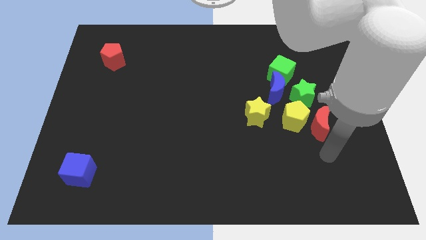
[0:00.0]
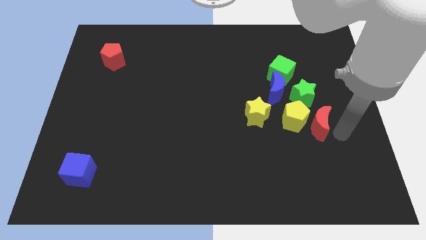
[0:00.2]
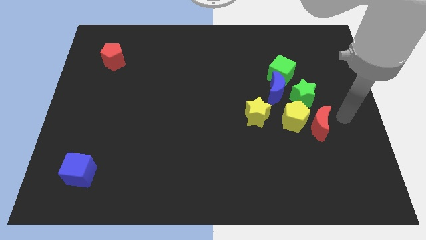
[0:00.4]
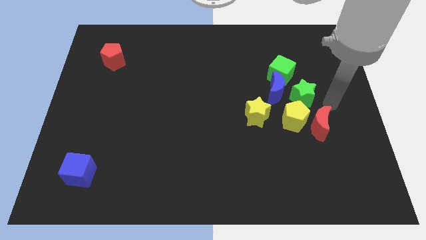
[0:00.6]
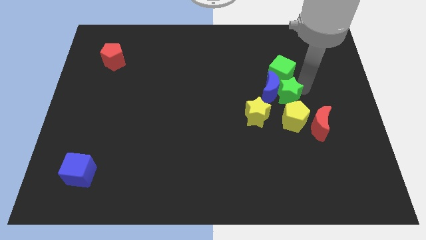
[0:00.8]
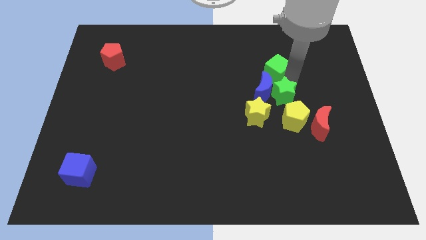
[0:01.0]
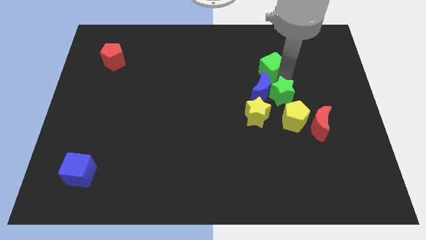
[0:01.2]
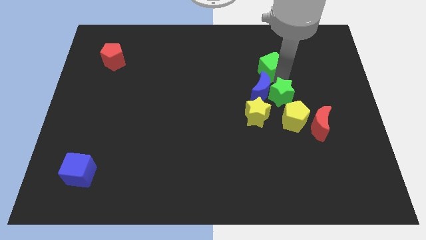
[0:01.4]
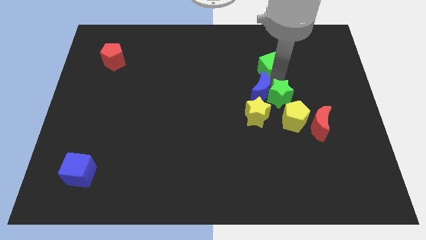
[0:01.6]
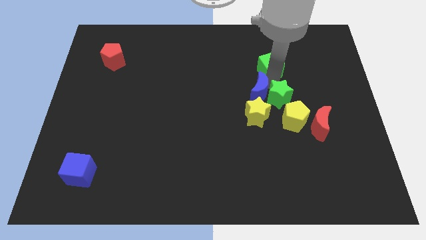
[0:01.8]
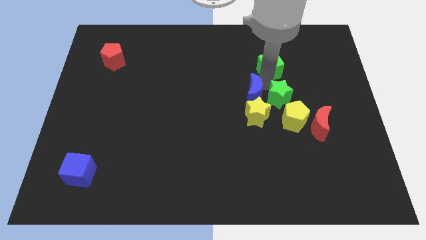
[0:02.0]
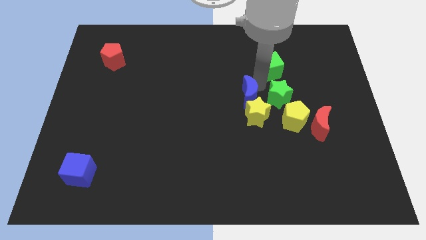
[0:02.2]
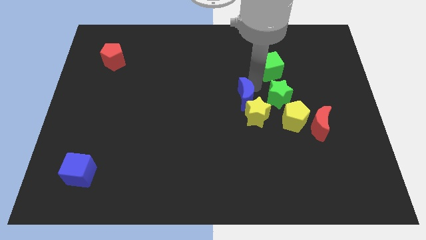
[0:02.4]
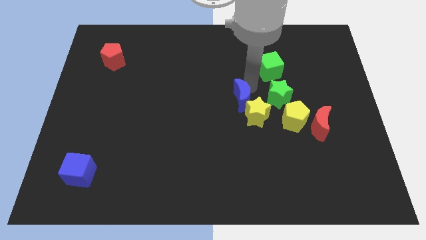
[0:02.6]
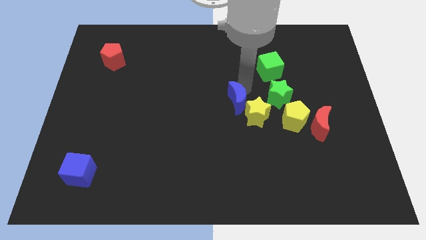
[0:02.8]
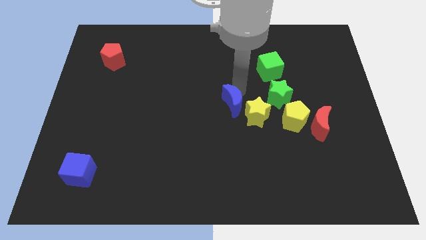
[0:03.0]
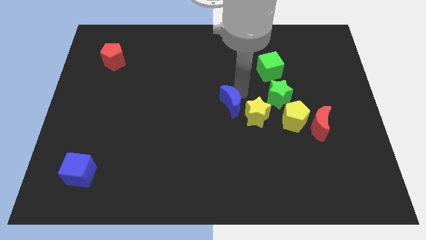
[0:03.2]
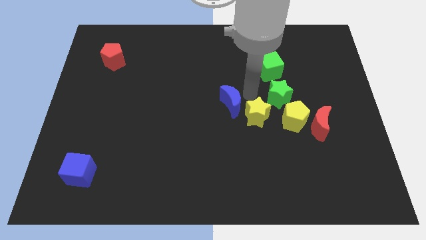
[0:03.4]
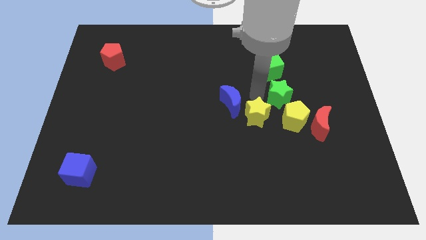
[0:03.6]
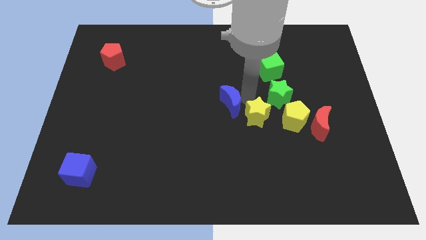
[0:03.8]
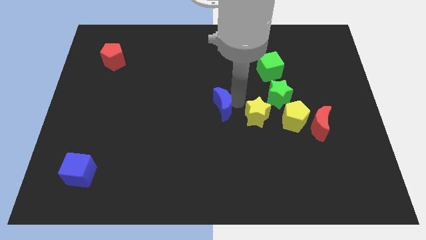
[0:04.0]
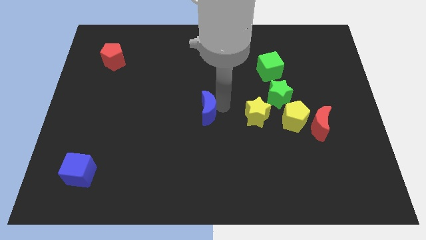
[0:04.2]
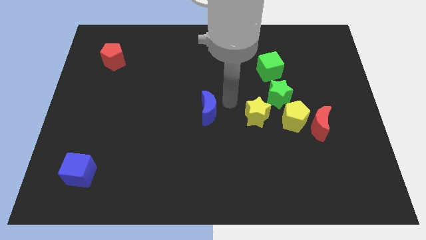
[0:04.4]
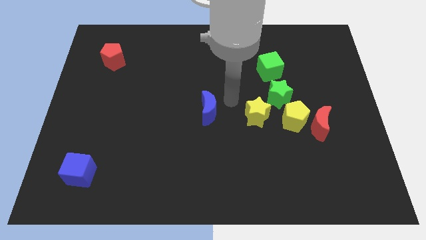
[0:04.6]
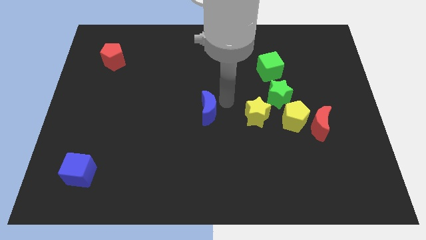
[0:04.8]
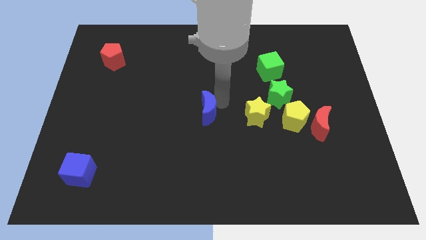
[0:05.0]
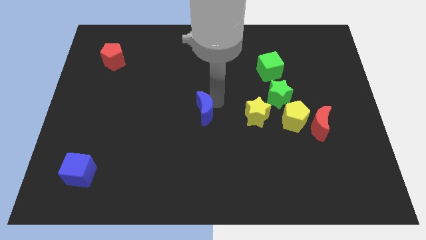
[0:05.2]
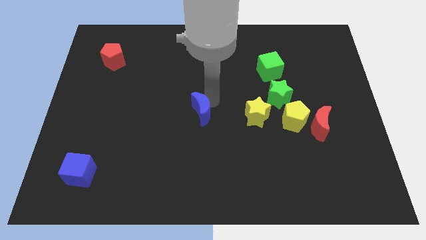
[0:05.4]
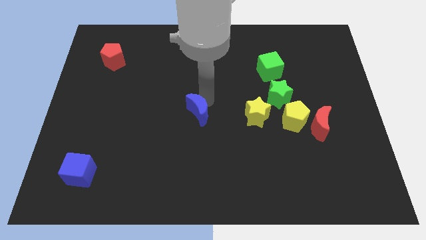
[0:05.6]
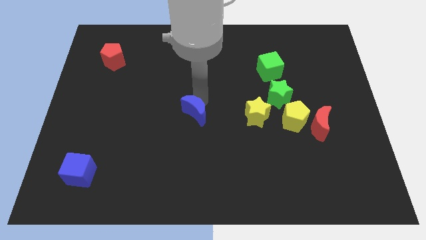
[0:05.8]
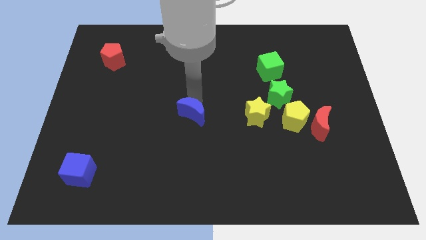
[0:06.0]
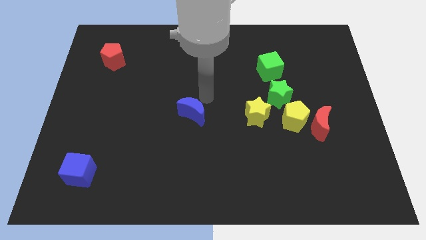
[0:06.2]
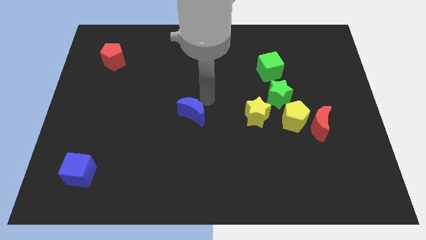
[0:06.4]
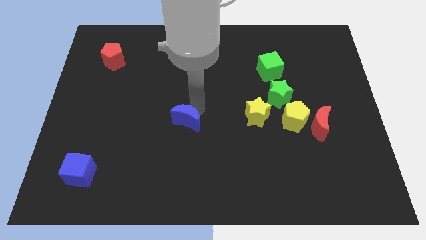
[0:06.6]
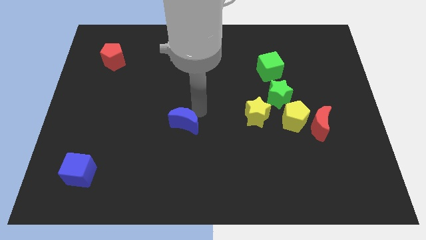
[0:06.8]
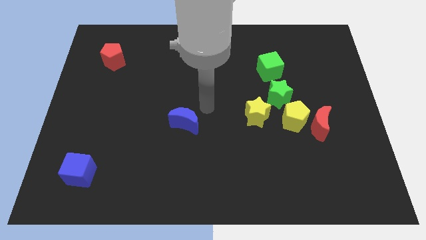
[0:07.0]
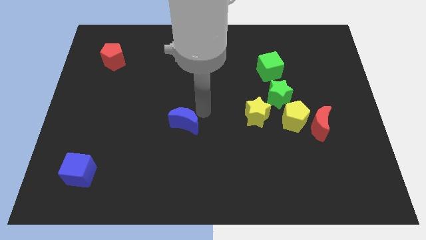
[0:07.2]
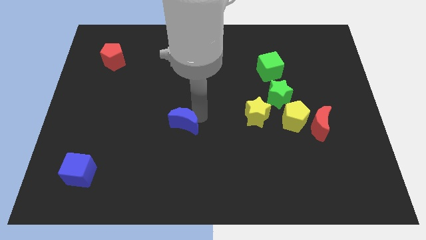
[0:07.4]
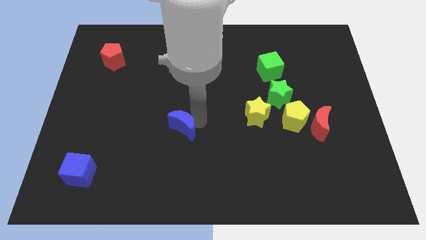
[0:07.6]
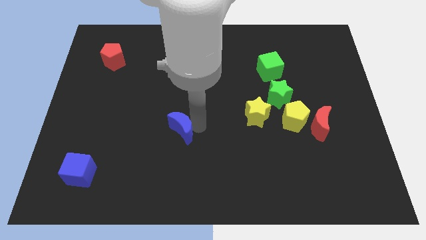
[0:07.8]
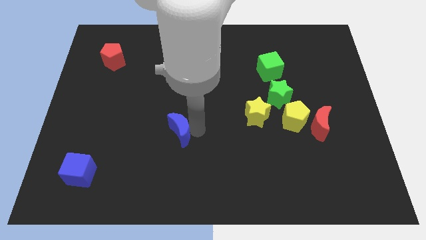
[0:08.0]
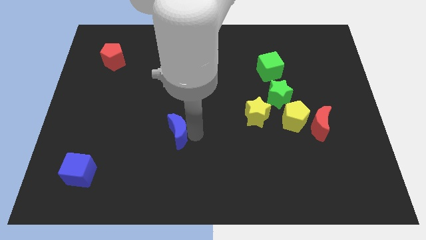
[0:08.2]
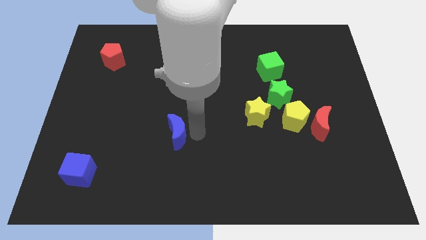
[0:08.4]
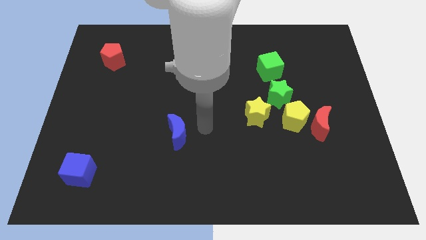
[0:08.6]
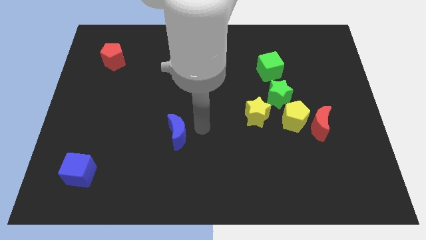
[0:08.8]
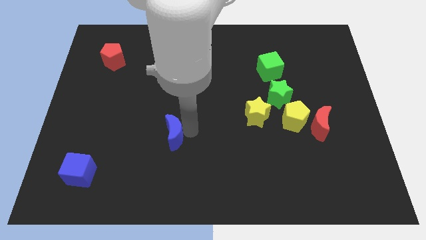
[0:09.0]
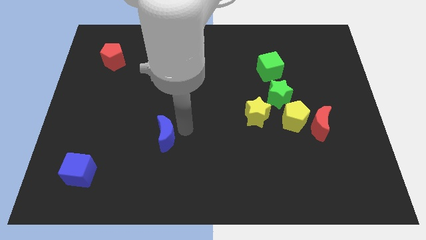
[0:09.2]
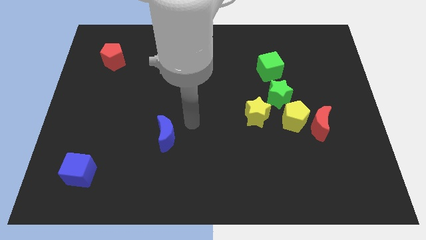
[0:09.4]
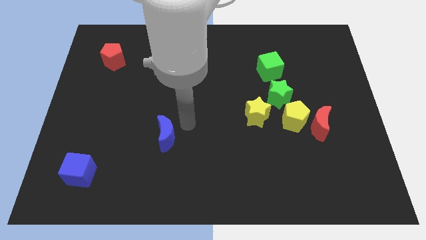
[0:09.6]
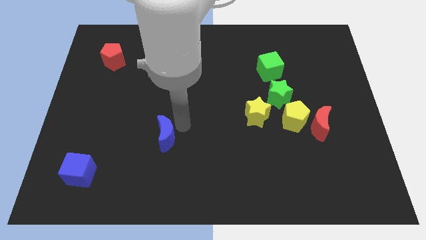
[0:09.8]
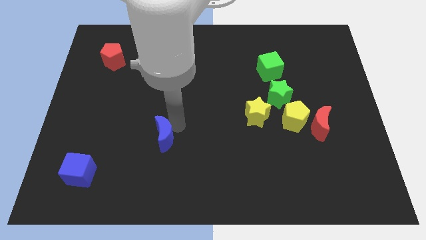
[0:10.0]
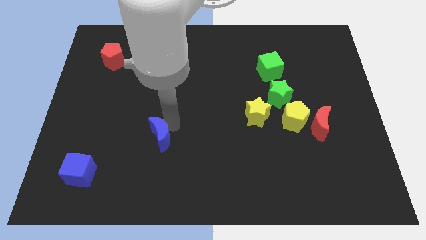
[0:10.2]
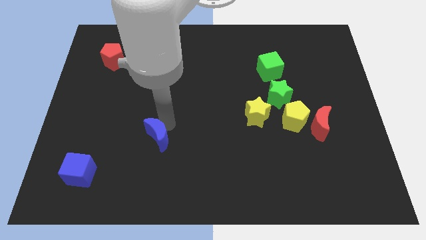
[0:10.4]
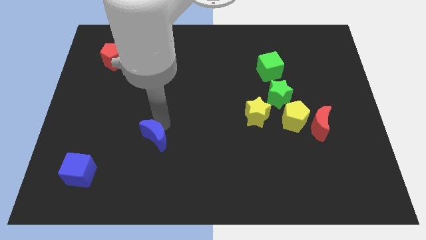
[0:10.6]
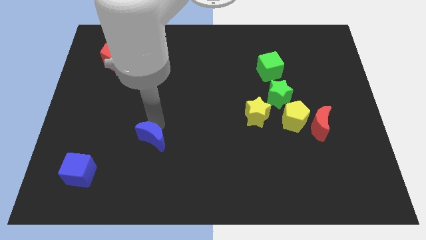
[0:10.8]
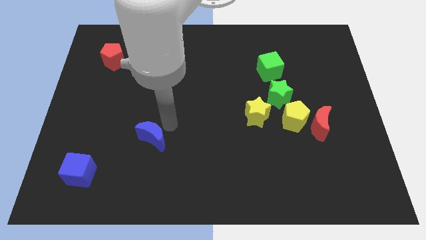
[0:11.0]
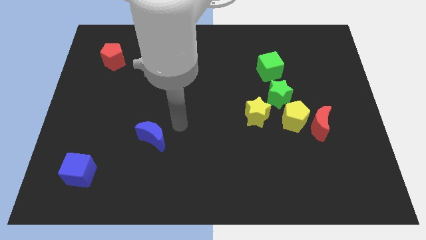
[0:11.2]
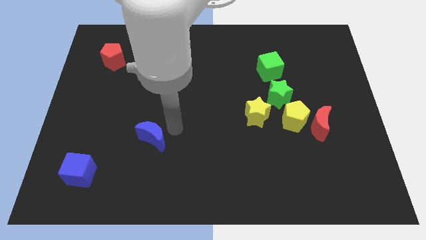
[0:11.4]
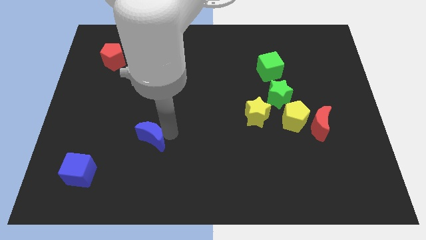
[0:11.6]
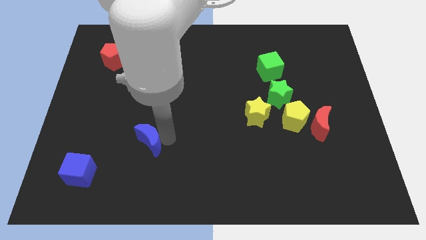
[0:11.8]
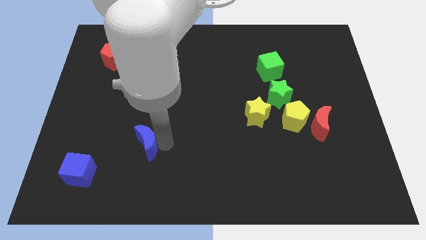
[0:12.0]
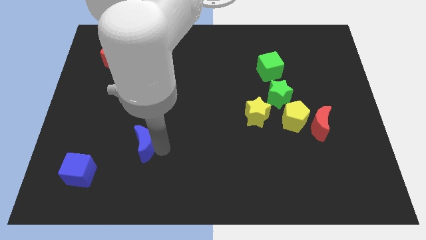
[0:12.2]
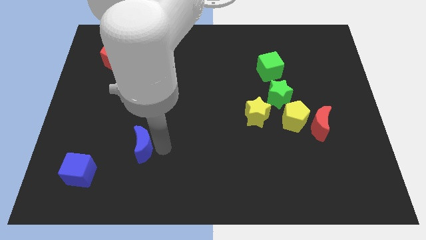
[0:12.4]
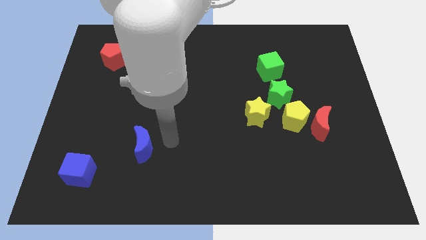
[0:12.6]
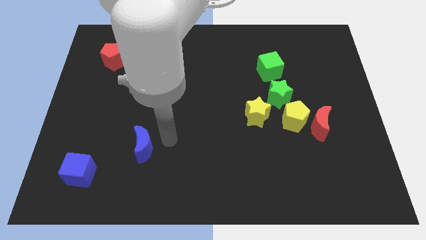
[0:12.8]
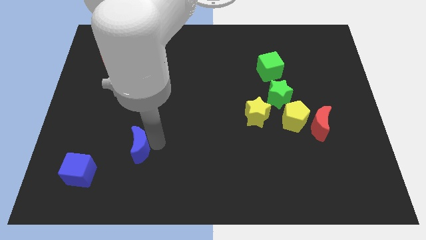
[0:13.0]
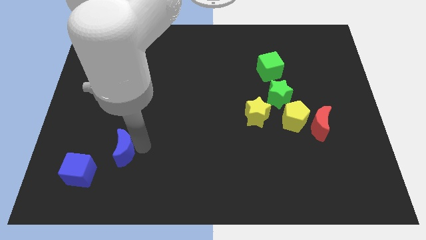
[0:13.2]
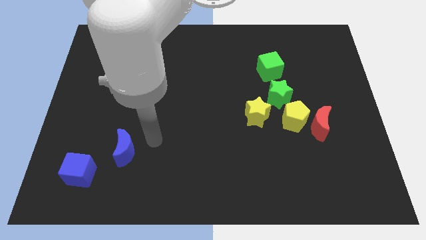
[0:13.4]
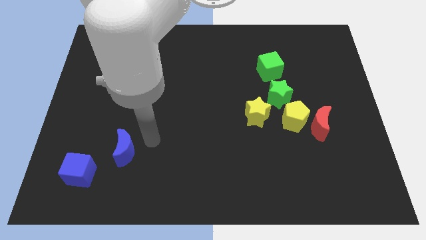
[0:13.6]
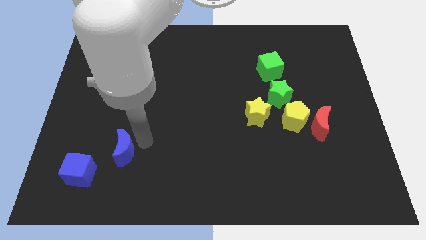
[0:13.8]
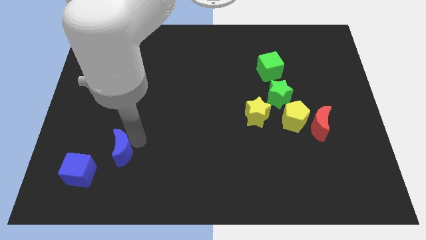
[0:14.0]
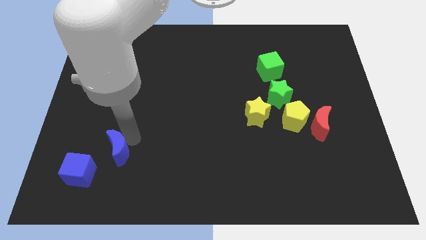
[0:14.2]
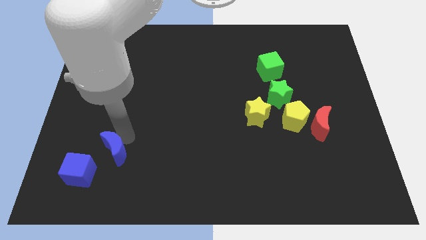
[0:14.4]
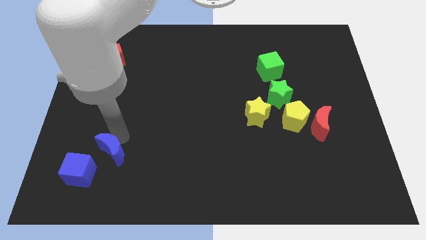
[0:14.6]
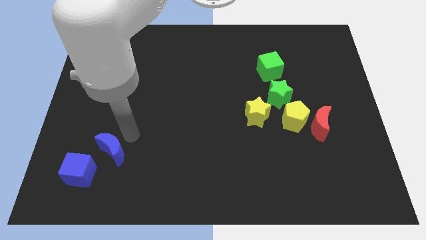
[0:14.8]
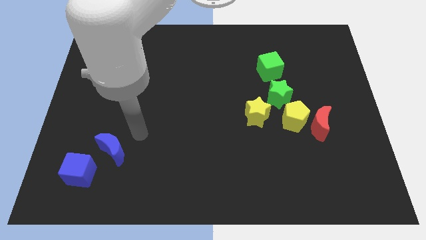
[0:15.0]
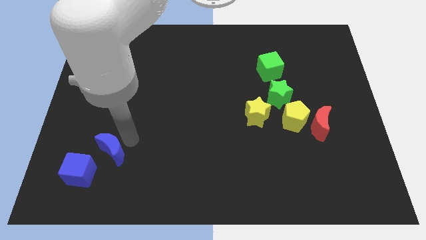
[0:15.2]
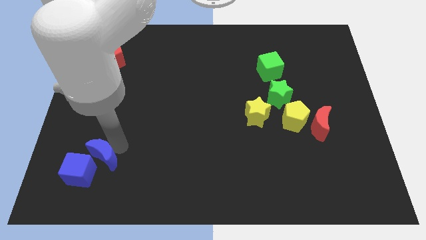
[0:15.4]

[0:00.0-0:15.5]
slide the blue moon next to the blue cube
